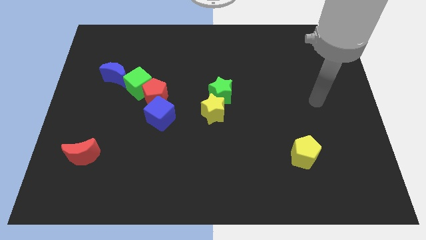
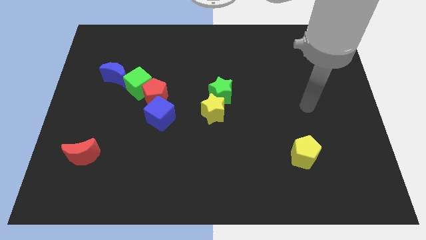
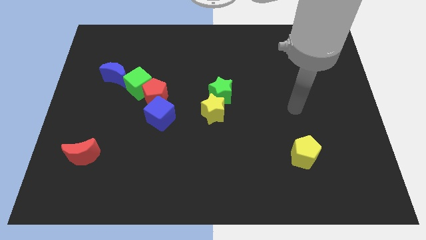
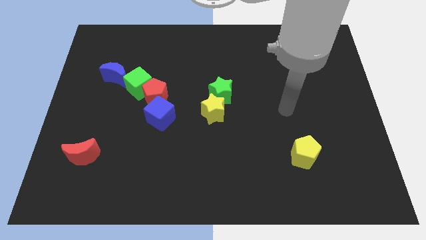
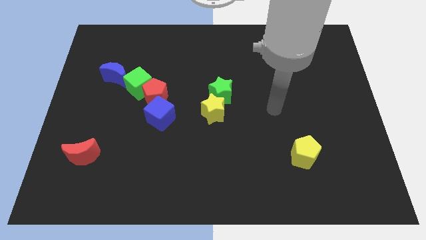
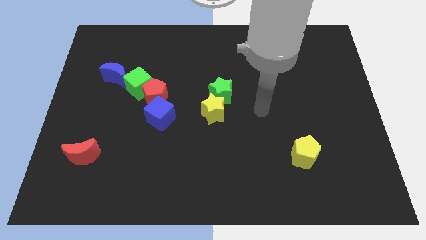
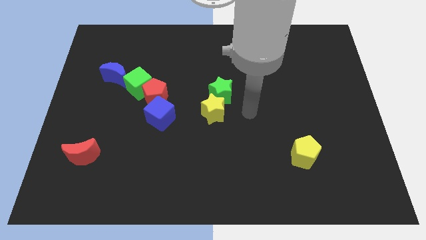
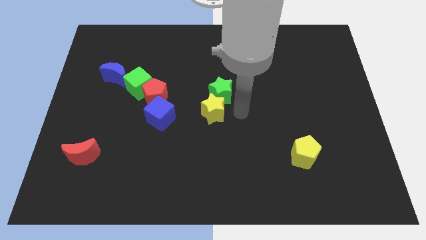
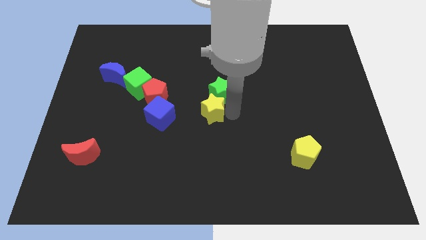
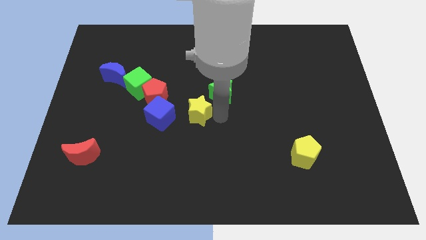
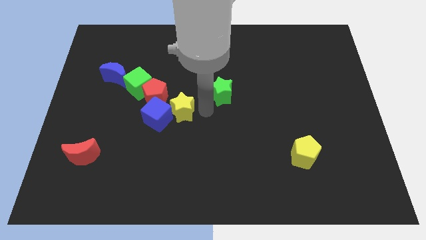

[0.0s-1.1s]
move the green star away from the yellow star

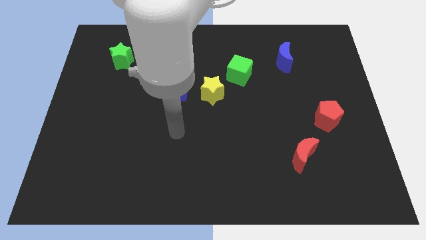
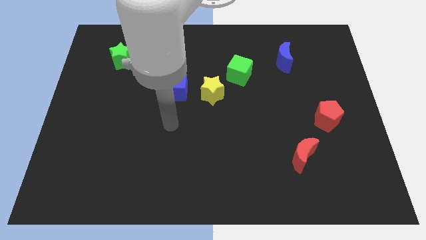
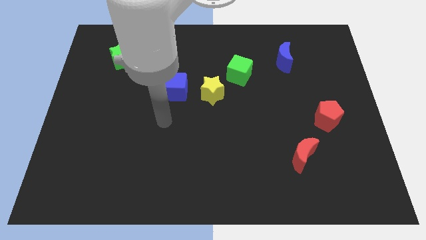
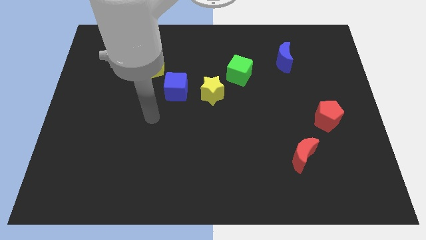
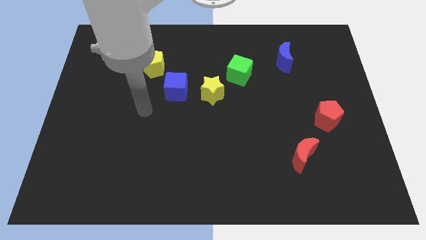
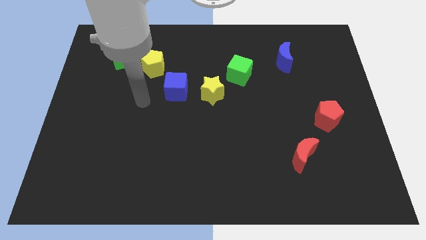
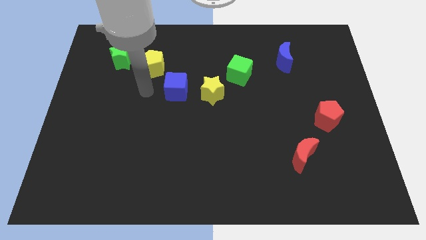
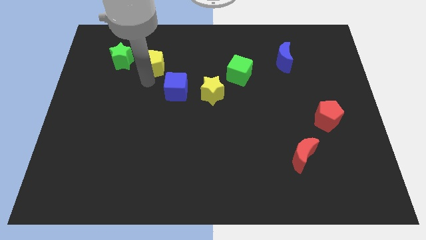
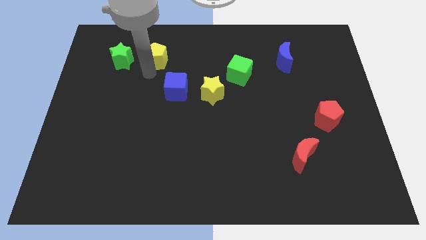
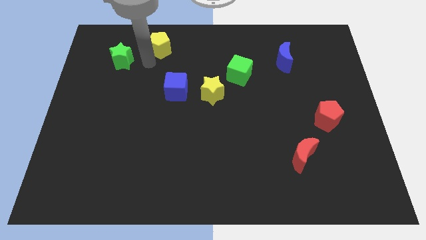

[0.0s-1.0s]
move the green star away from the yellow pentagon

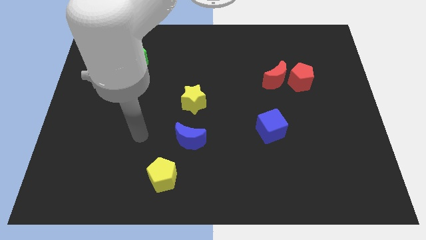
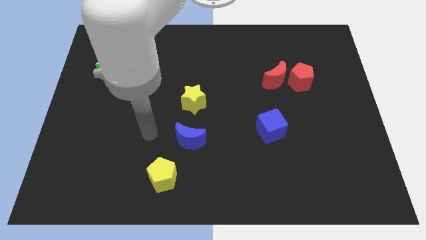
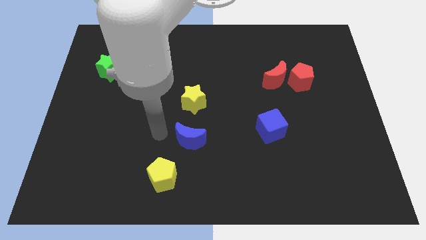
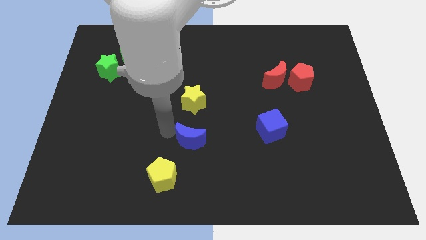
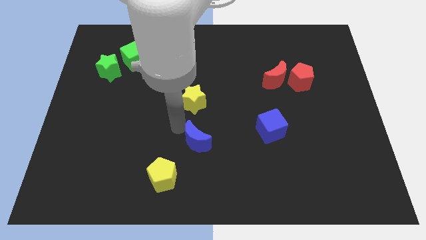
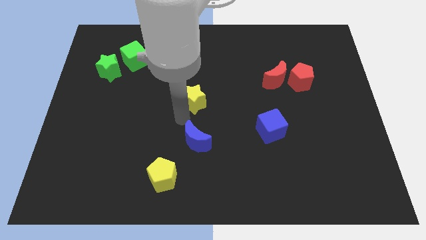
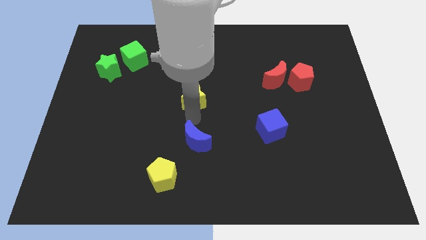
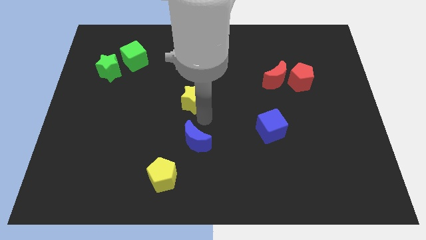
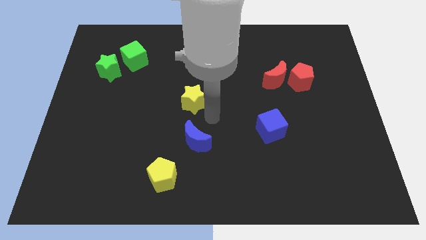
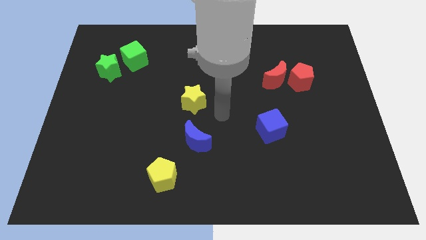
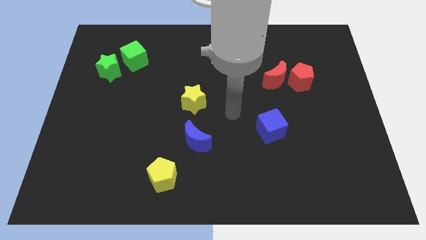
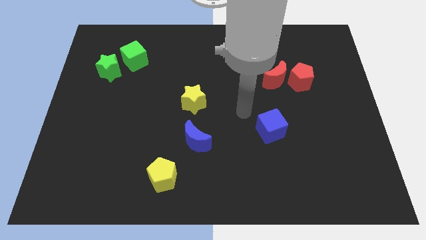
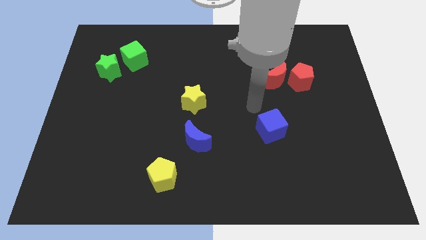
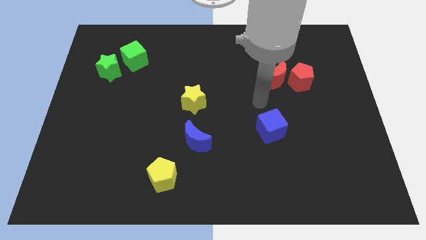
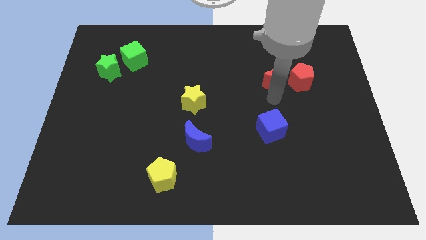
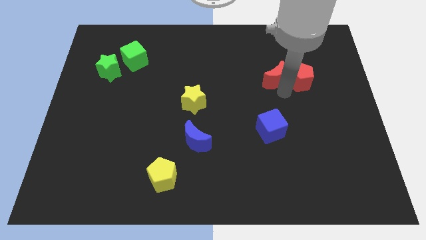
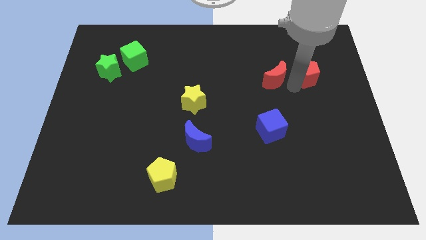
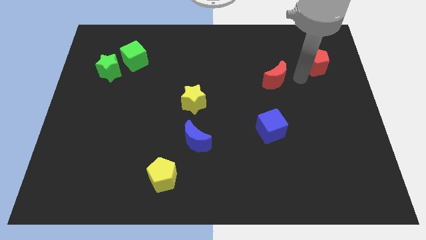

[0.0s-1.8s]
pull the red moon apart from the red pentagon

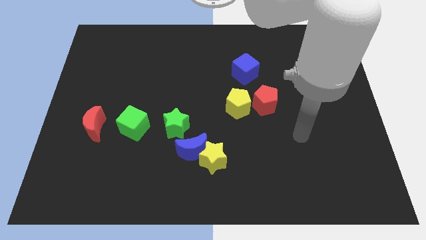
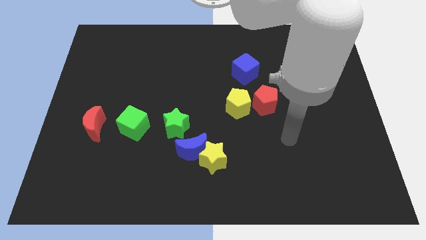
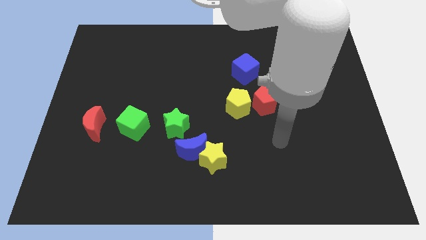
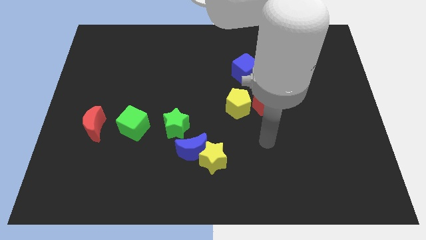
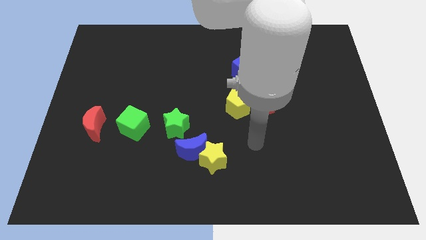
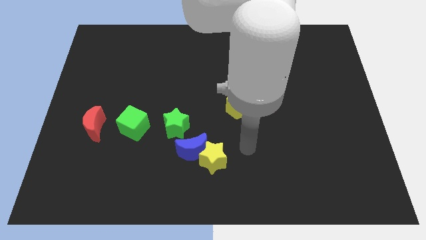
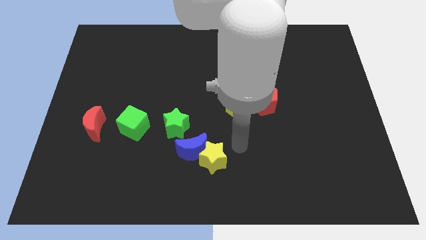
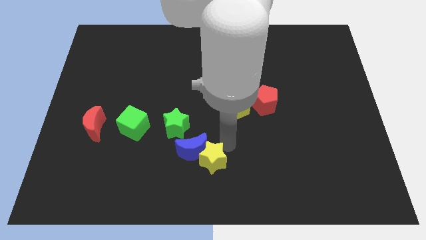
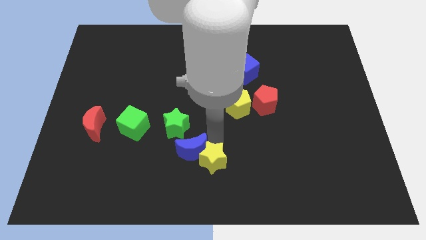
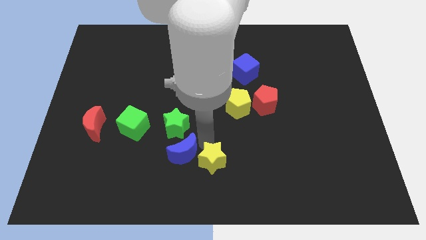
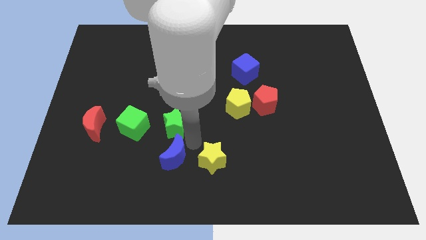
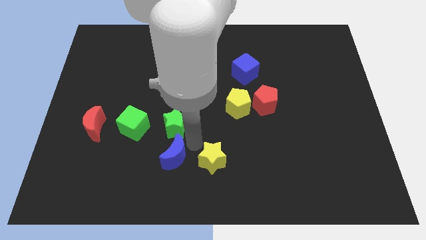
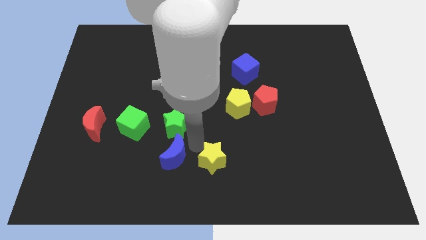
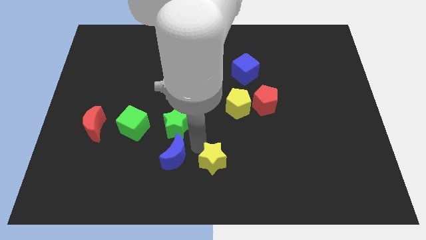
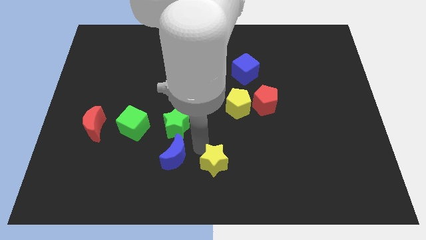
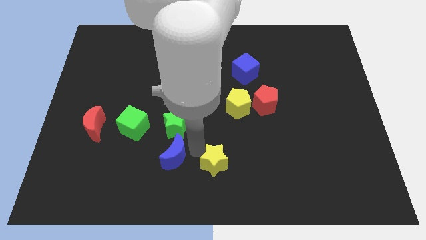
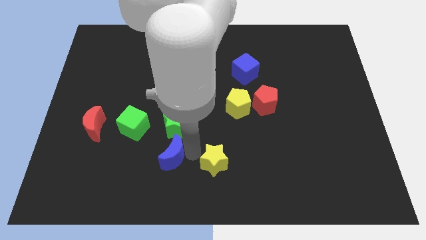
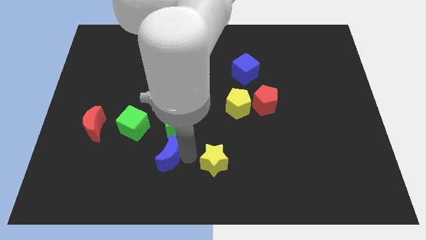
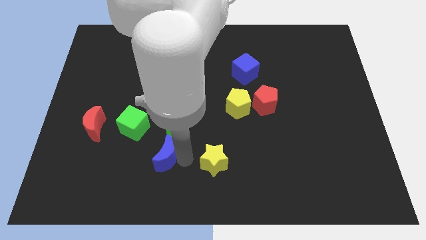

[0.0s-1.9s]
pull the yellow star apart from the blue moon

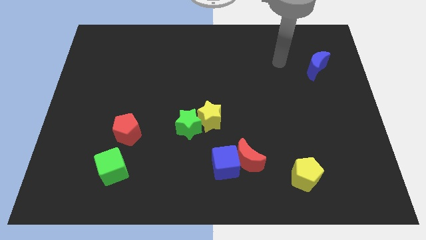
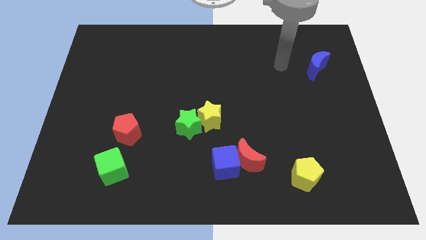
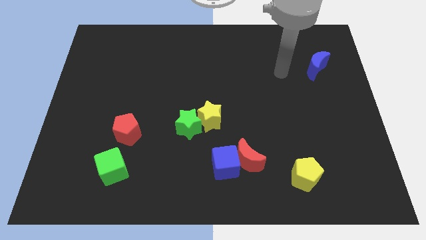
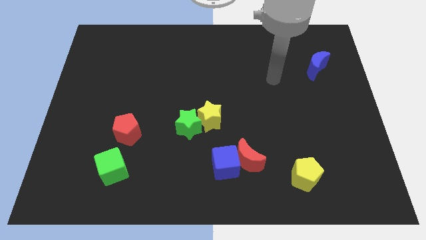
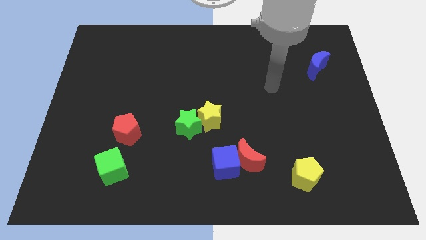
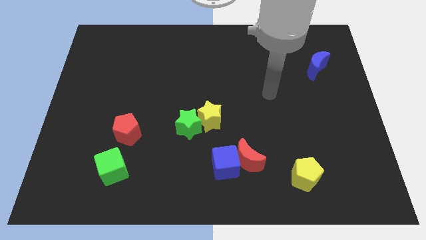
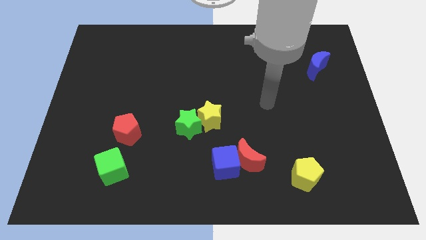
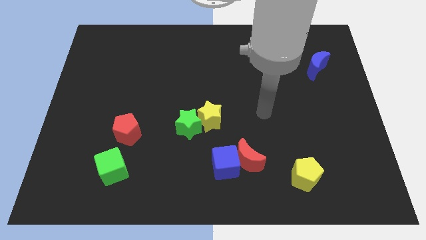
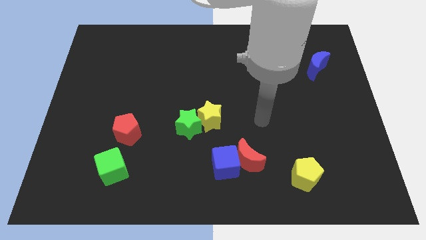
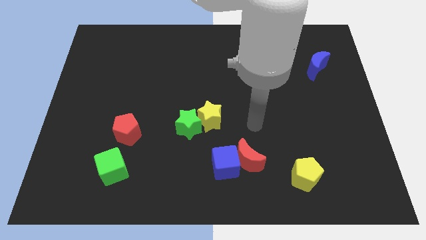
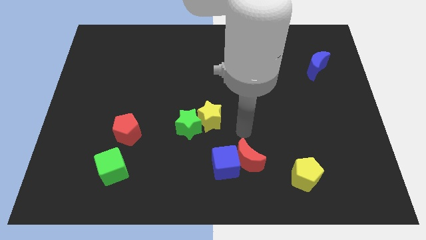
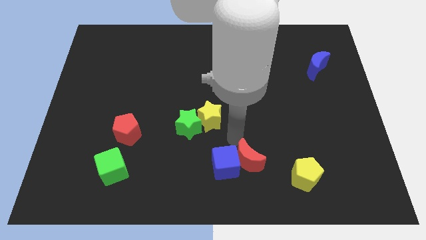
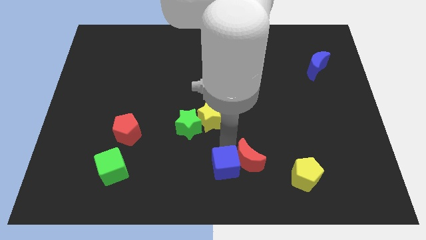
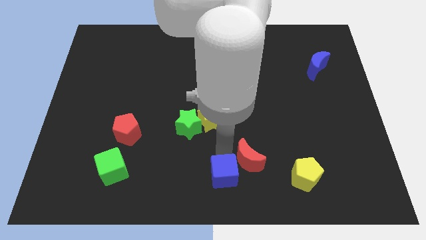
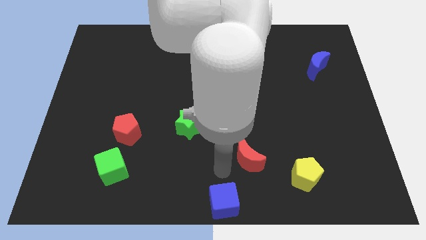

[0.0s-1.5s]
separate the red moon from the blue cube

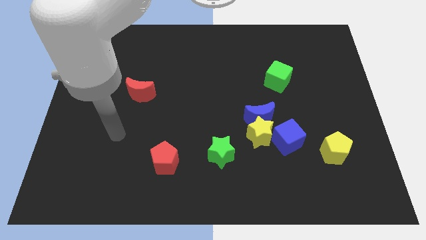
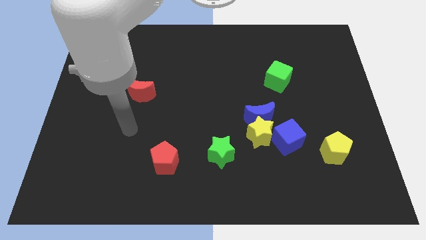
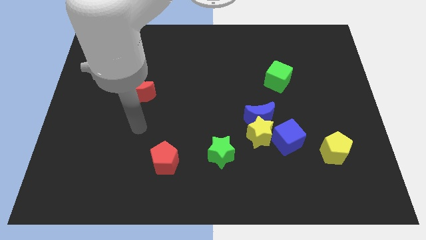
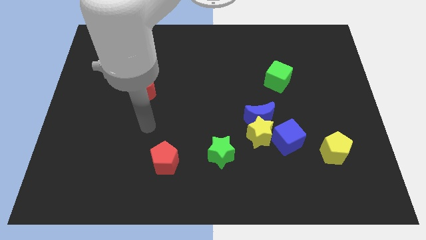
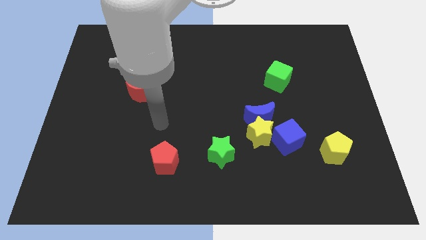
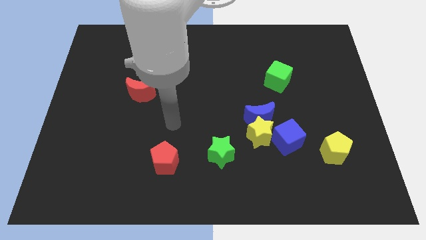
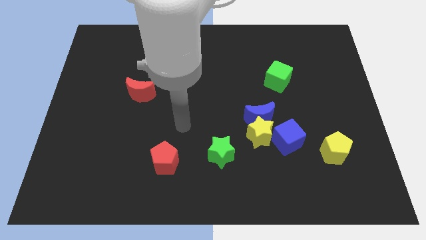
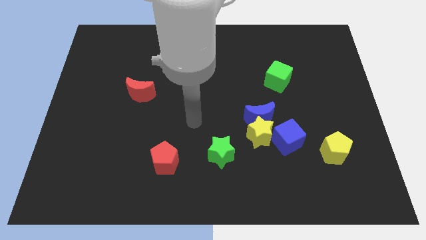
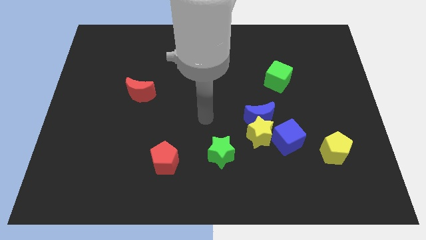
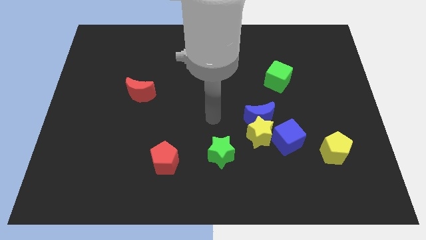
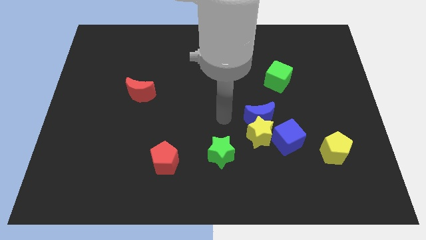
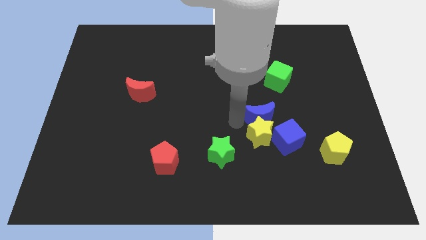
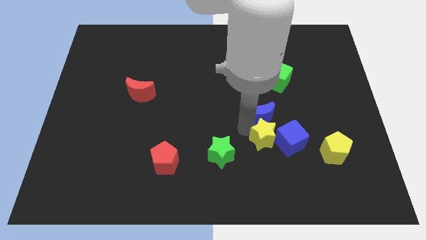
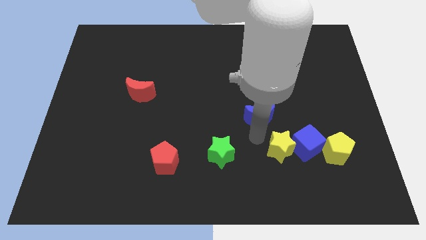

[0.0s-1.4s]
move the blue moon away from the yellow star and blue cube

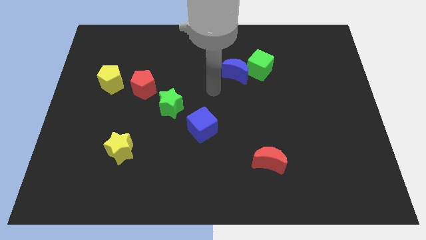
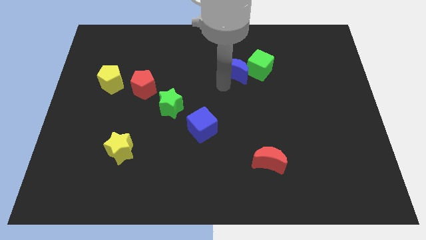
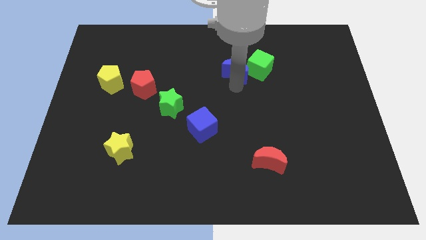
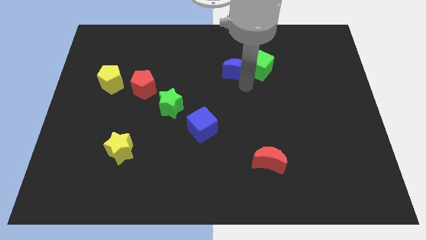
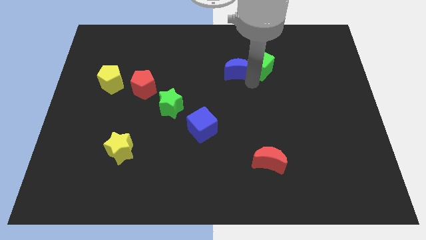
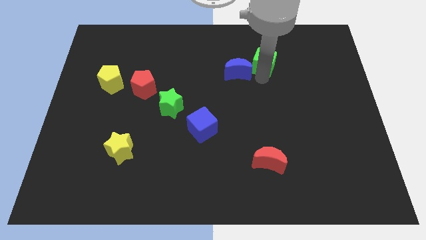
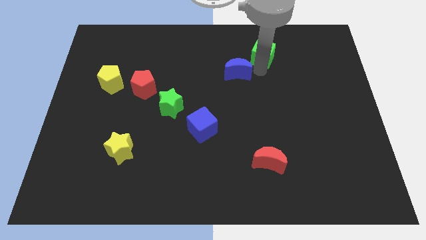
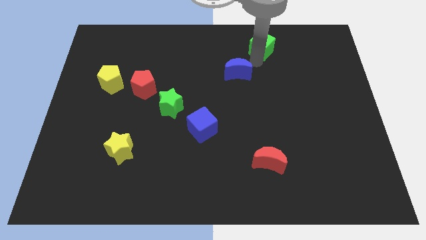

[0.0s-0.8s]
pull the blue moon apart from the green cube
